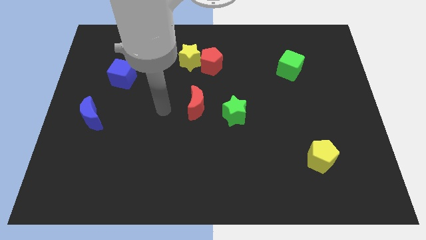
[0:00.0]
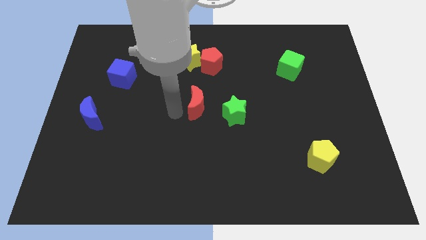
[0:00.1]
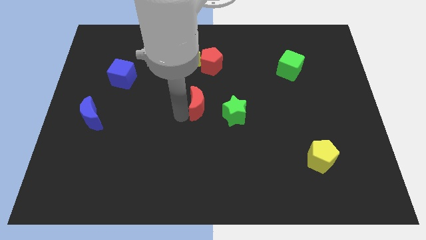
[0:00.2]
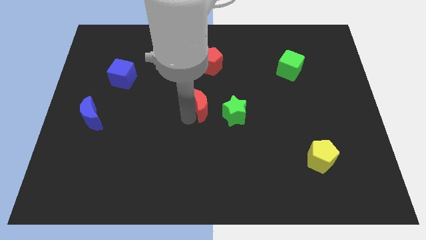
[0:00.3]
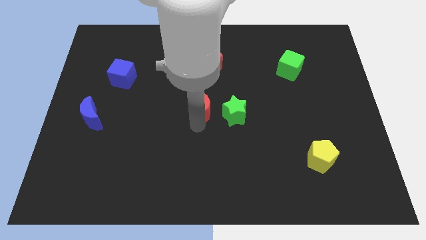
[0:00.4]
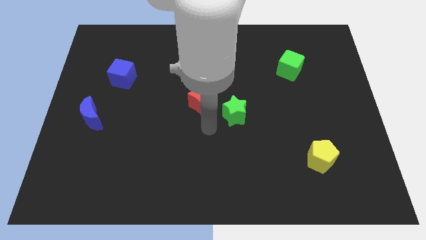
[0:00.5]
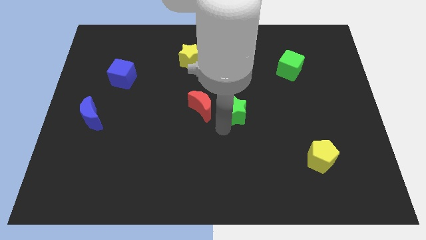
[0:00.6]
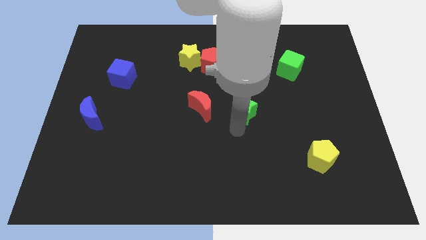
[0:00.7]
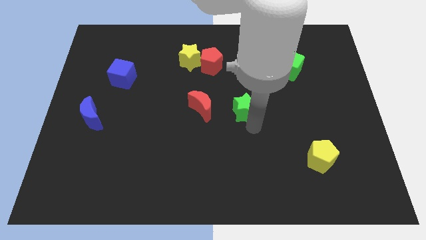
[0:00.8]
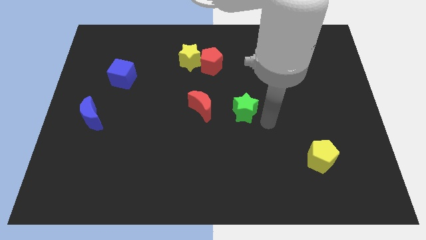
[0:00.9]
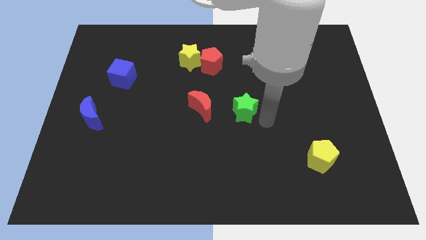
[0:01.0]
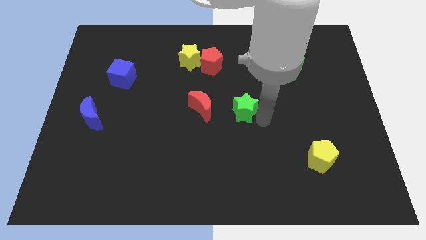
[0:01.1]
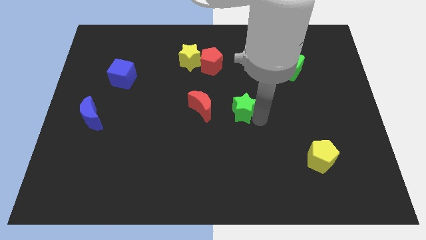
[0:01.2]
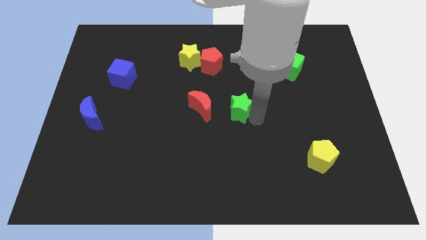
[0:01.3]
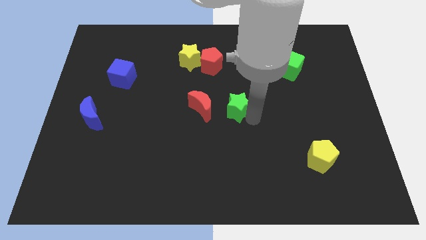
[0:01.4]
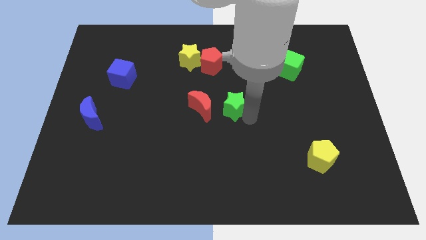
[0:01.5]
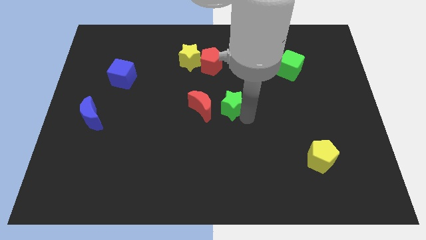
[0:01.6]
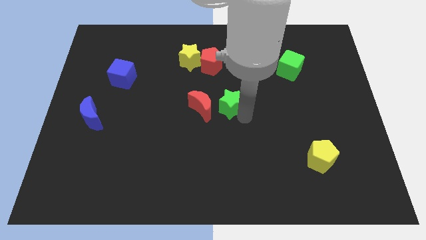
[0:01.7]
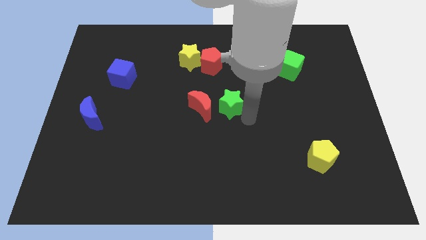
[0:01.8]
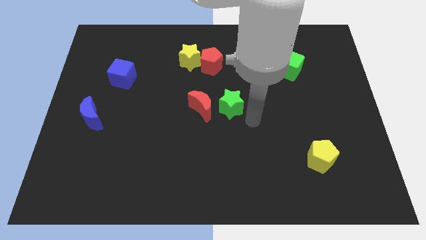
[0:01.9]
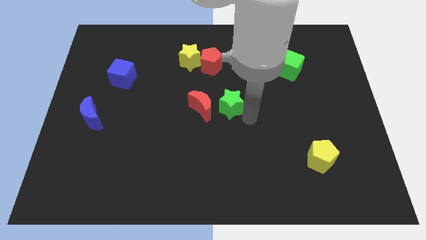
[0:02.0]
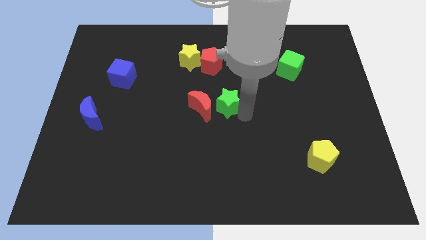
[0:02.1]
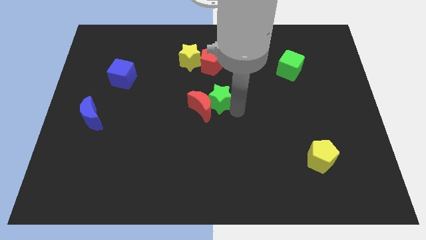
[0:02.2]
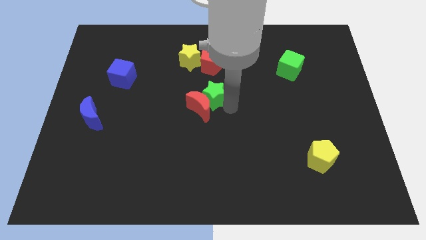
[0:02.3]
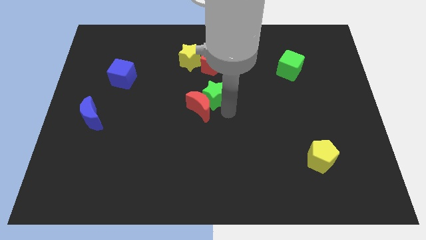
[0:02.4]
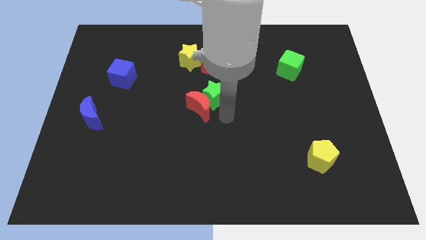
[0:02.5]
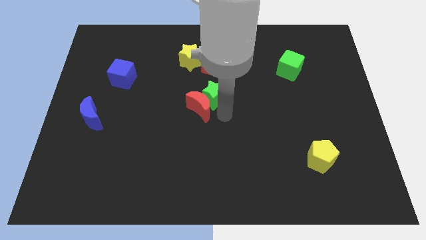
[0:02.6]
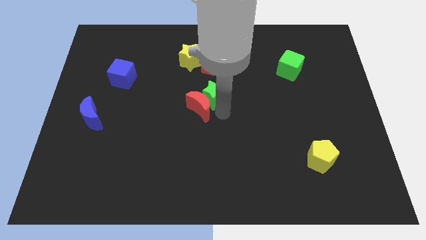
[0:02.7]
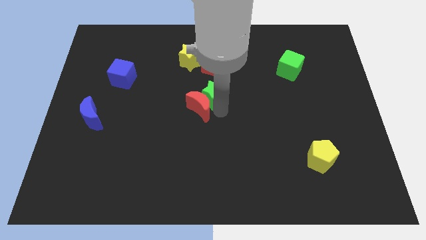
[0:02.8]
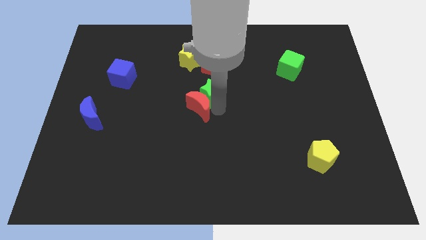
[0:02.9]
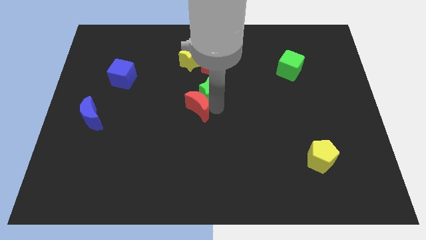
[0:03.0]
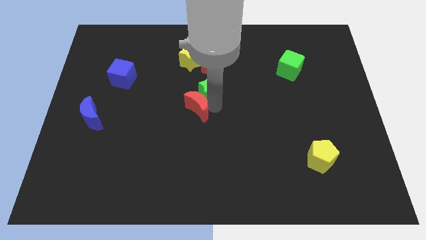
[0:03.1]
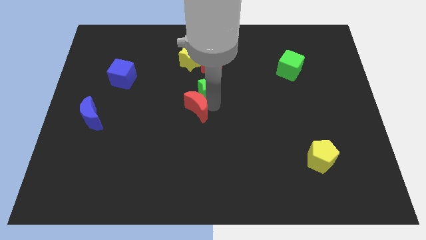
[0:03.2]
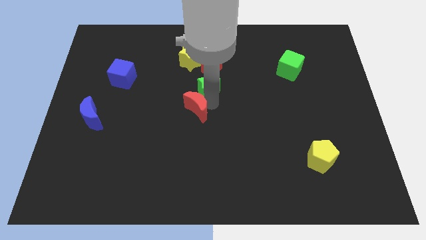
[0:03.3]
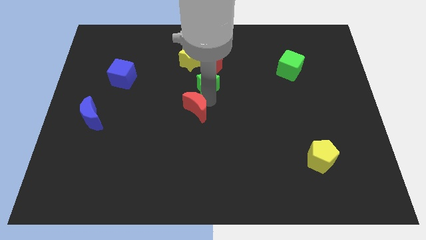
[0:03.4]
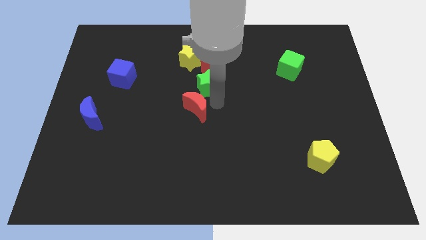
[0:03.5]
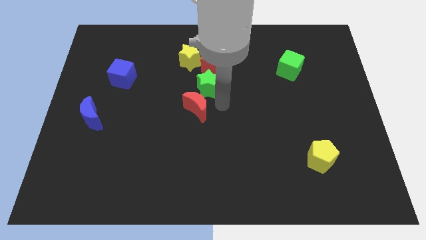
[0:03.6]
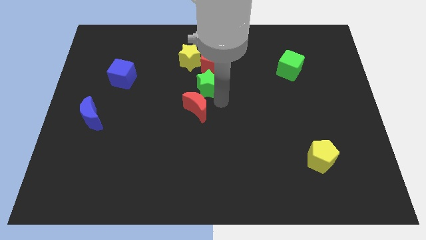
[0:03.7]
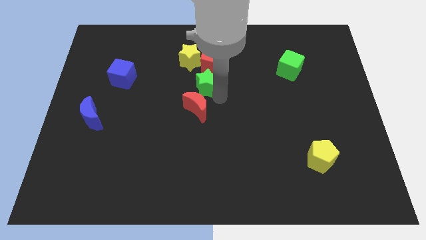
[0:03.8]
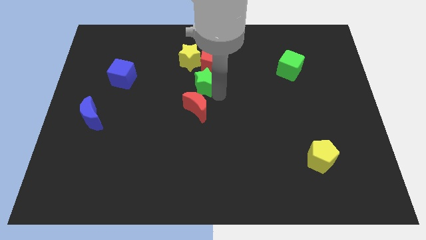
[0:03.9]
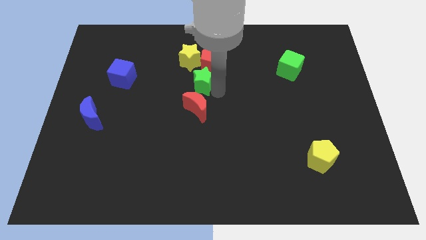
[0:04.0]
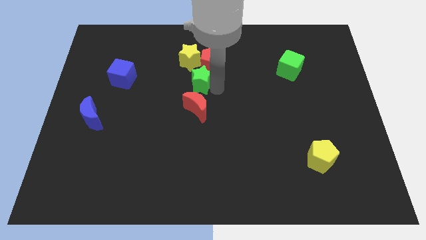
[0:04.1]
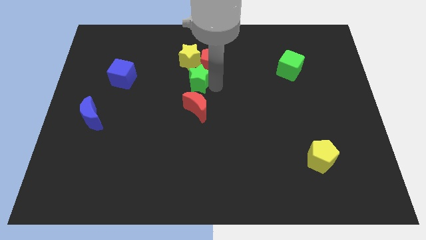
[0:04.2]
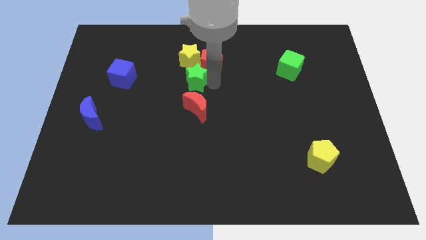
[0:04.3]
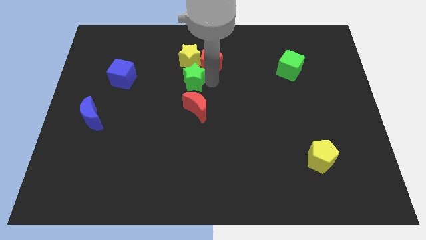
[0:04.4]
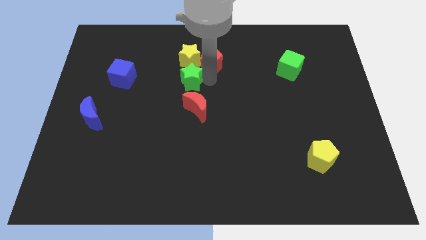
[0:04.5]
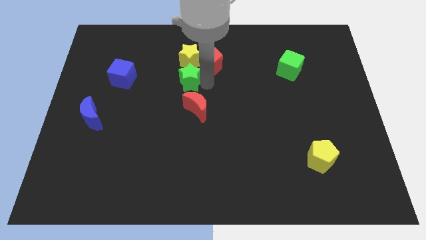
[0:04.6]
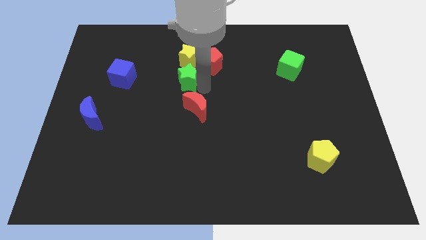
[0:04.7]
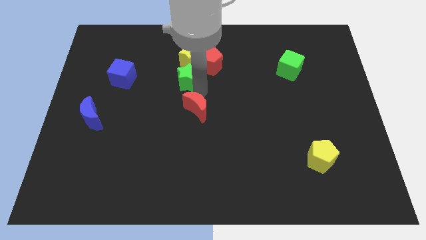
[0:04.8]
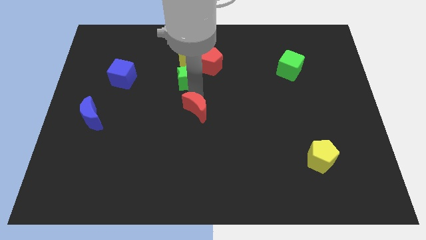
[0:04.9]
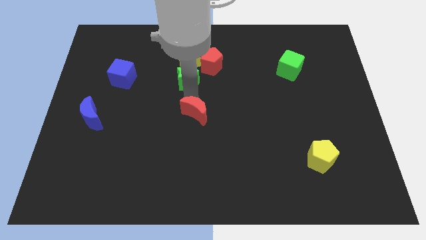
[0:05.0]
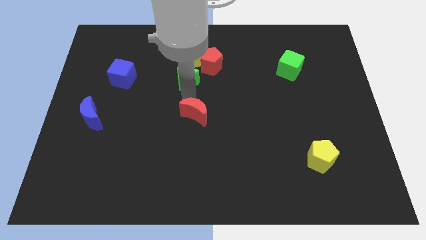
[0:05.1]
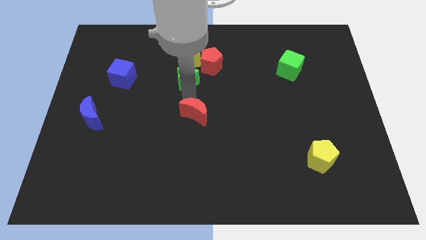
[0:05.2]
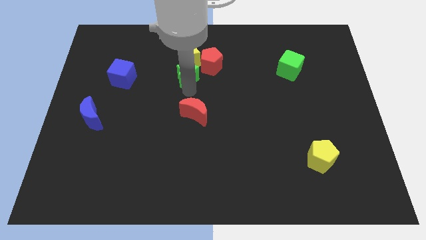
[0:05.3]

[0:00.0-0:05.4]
slide the green star close to the yellow star

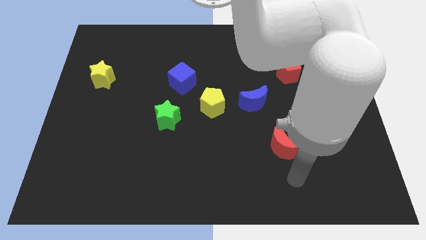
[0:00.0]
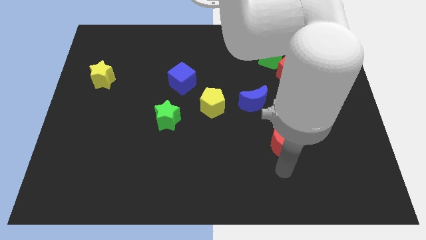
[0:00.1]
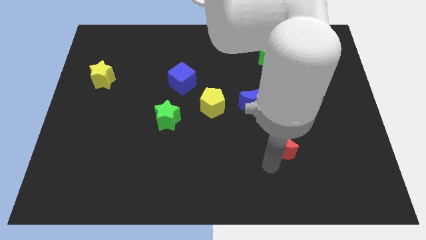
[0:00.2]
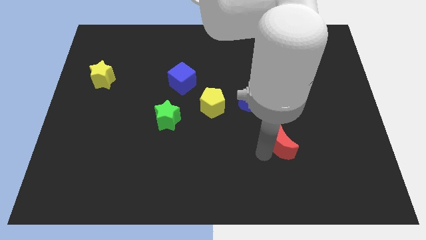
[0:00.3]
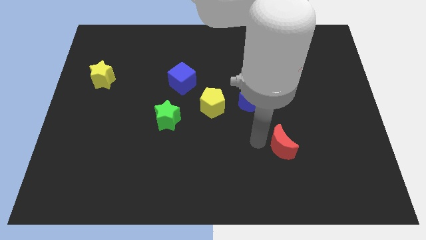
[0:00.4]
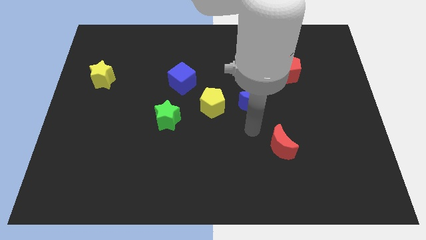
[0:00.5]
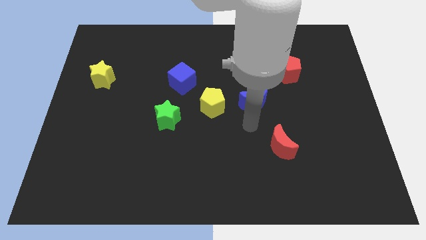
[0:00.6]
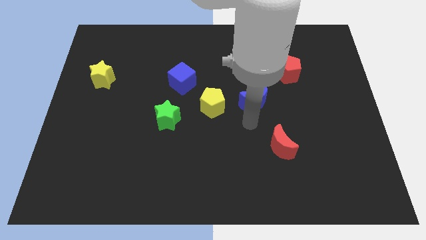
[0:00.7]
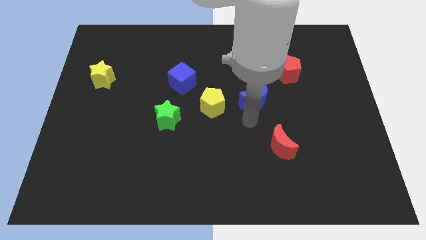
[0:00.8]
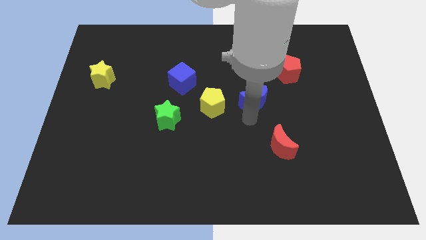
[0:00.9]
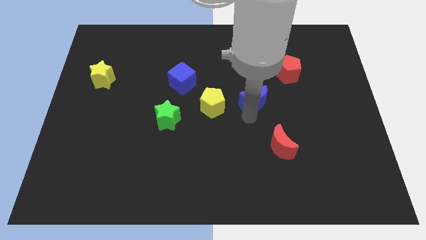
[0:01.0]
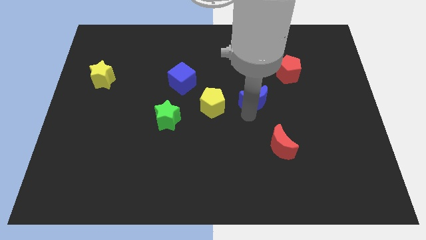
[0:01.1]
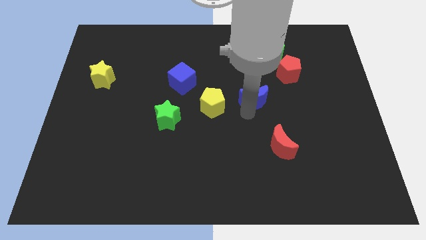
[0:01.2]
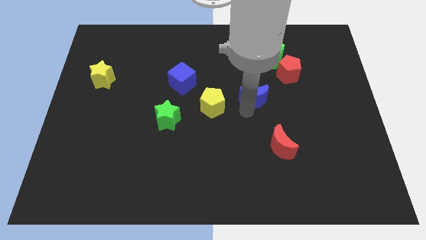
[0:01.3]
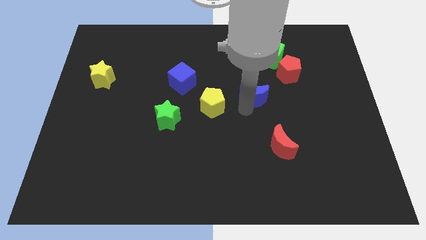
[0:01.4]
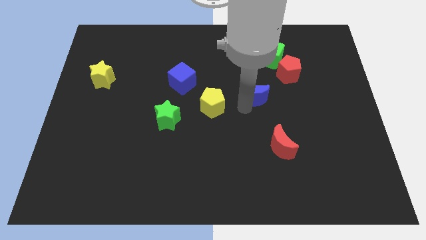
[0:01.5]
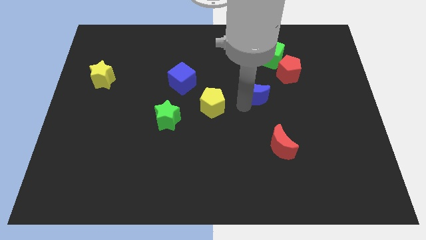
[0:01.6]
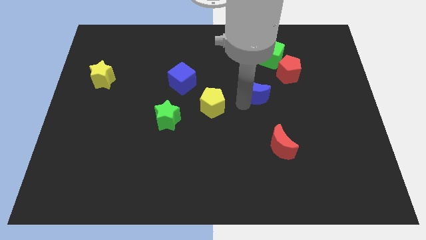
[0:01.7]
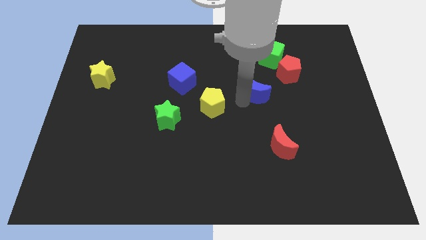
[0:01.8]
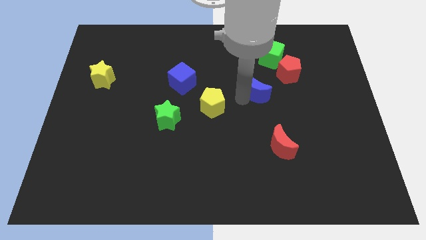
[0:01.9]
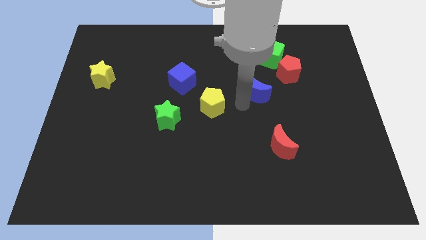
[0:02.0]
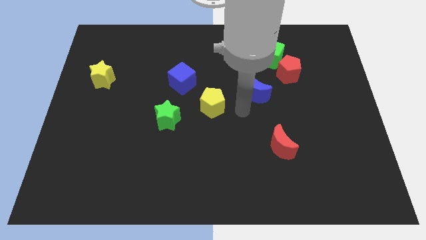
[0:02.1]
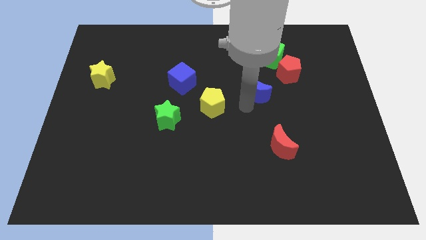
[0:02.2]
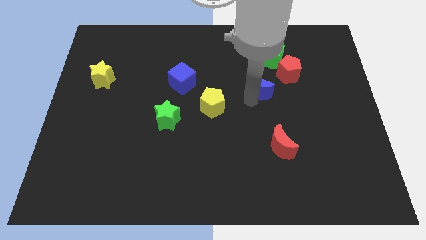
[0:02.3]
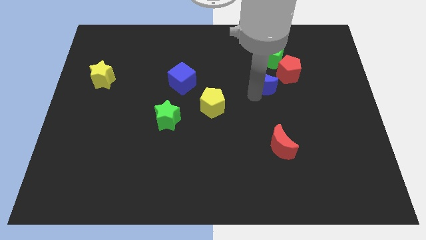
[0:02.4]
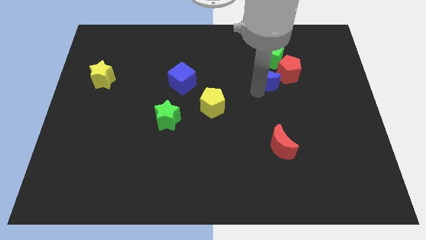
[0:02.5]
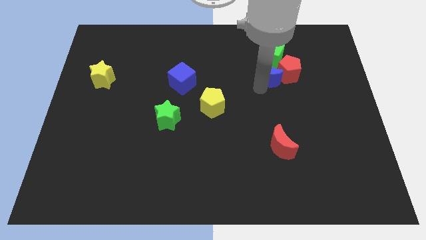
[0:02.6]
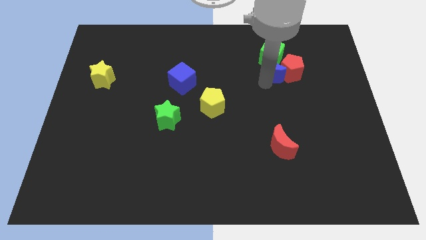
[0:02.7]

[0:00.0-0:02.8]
move the blue moon close to the green cube
